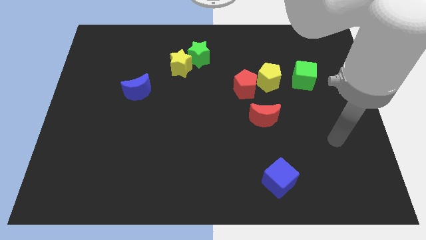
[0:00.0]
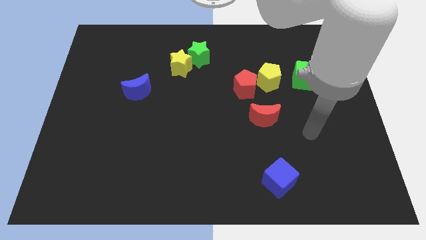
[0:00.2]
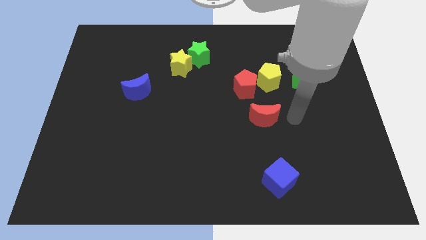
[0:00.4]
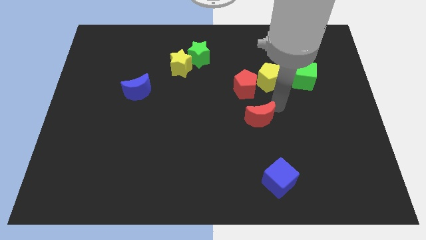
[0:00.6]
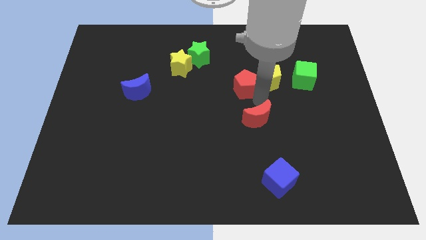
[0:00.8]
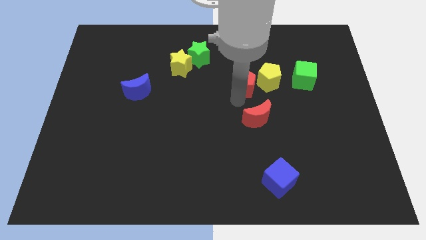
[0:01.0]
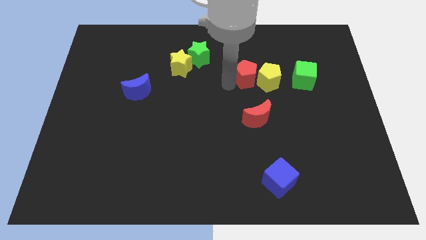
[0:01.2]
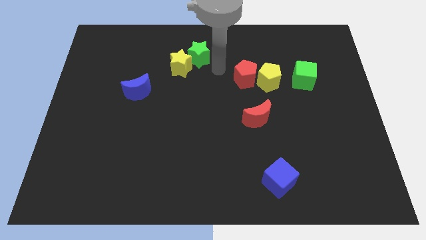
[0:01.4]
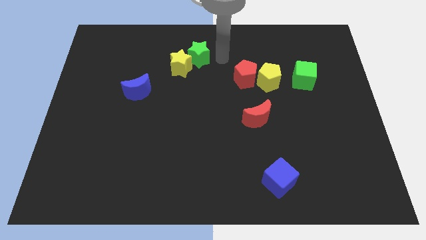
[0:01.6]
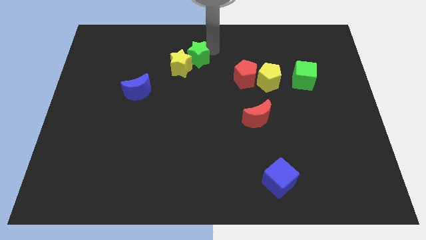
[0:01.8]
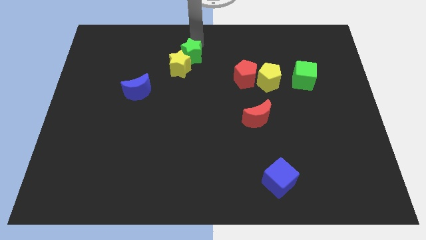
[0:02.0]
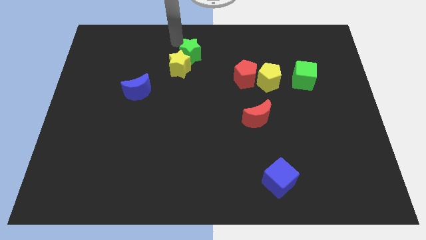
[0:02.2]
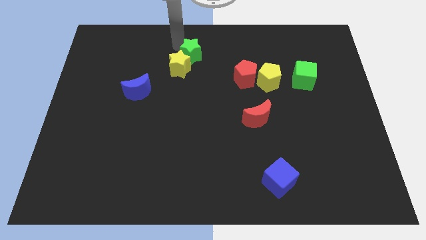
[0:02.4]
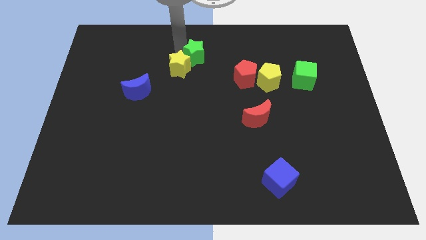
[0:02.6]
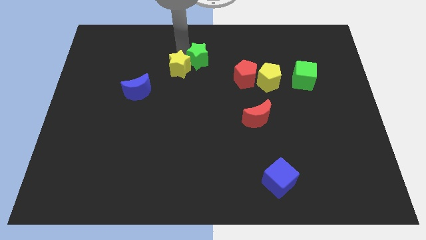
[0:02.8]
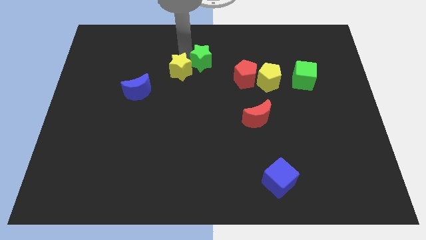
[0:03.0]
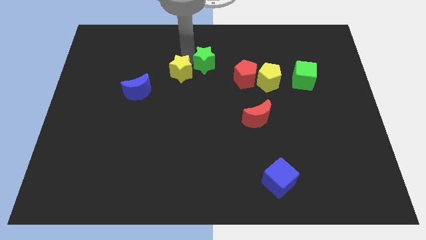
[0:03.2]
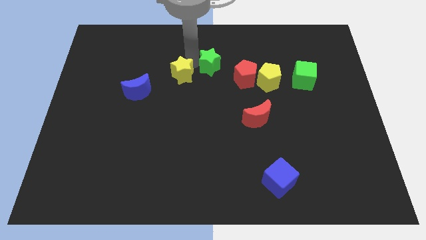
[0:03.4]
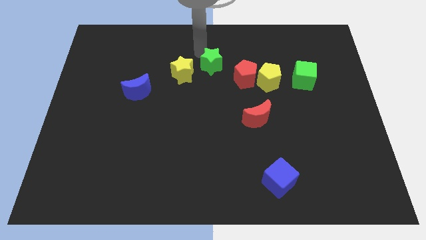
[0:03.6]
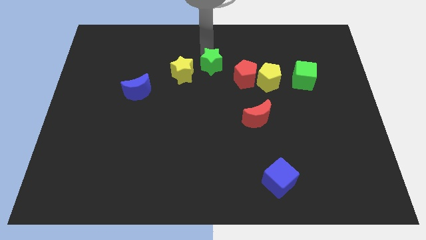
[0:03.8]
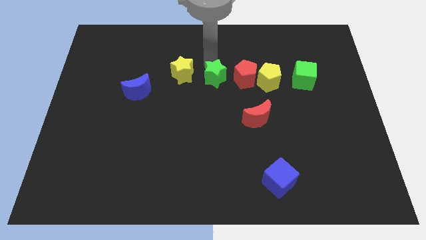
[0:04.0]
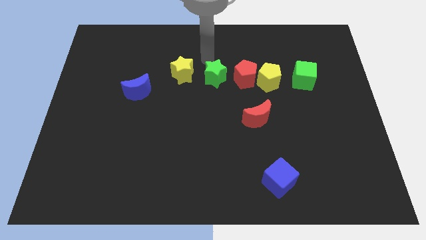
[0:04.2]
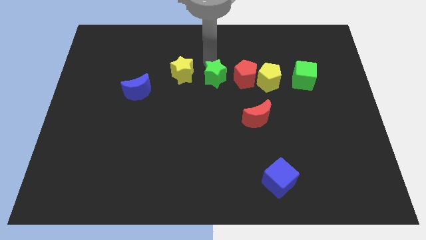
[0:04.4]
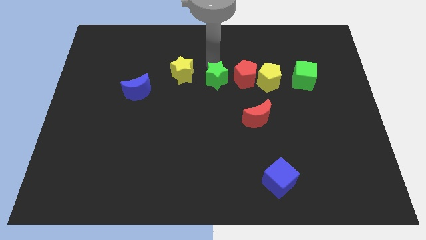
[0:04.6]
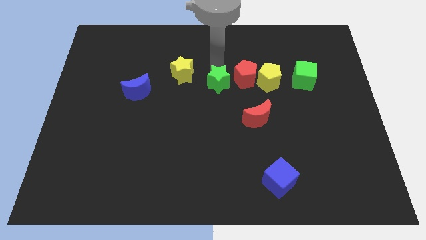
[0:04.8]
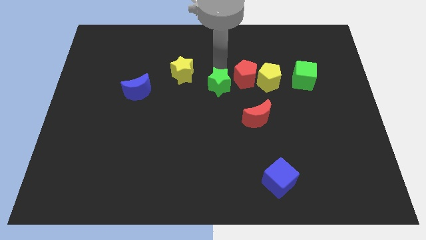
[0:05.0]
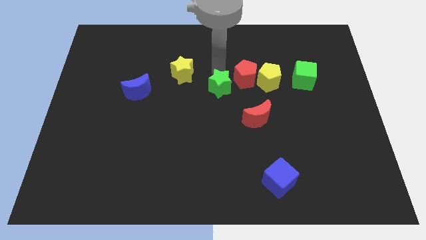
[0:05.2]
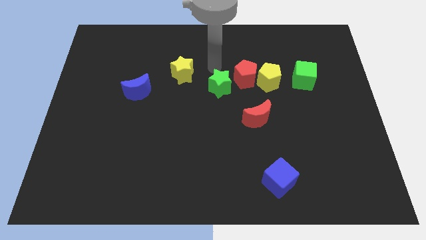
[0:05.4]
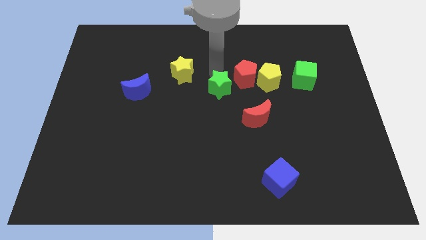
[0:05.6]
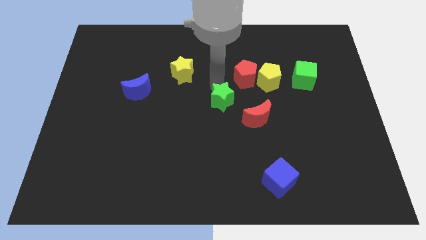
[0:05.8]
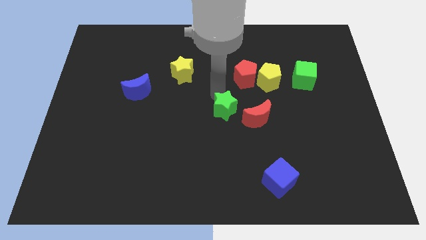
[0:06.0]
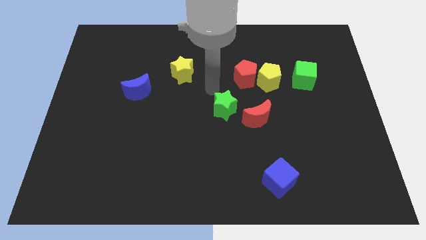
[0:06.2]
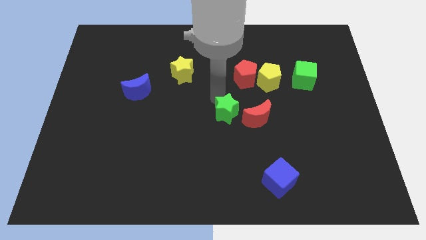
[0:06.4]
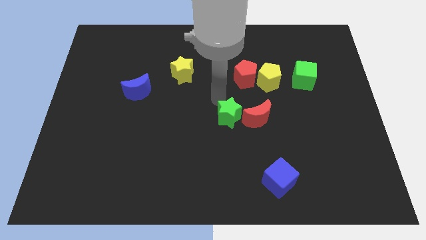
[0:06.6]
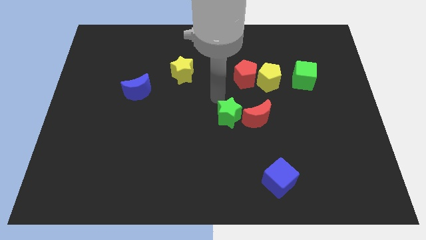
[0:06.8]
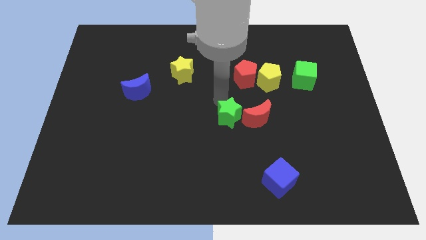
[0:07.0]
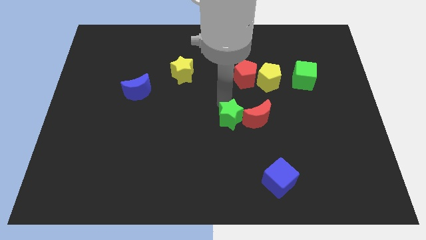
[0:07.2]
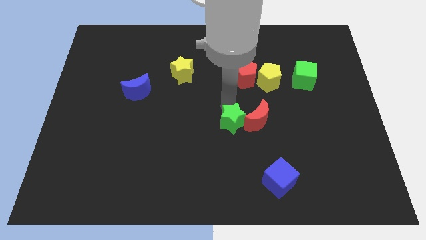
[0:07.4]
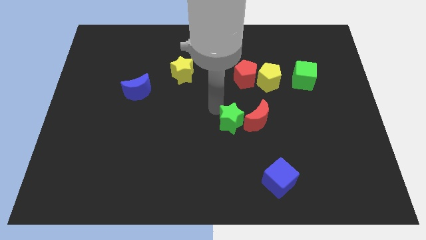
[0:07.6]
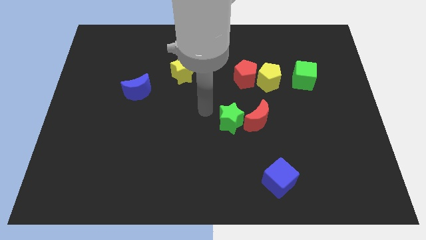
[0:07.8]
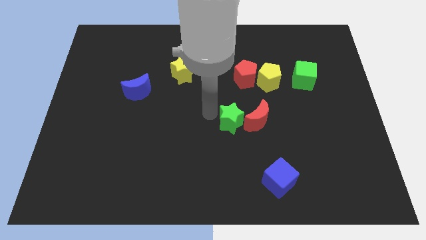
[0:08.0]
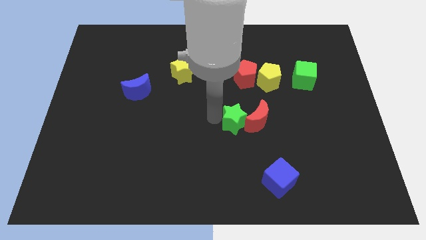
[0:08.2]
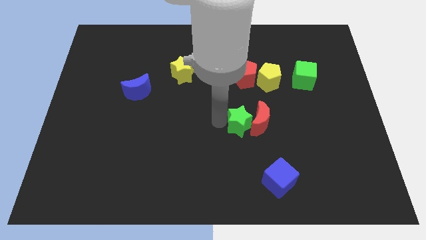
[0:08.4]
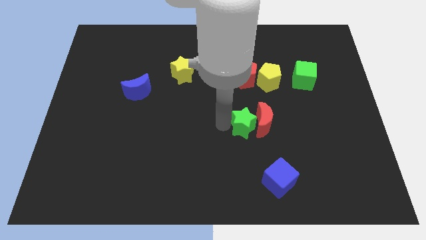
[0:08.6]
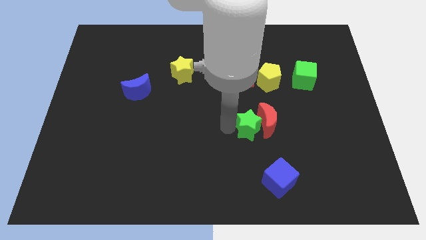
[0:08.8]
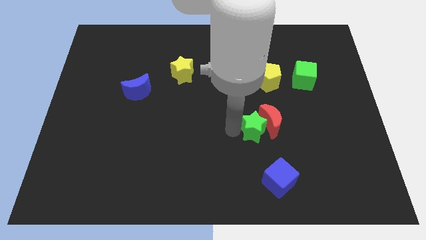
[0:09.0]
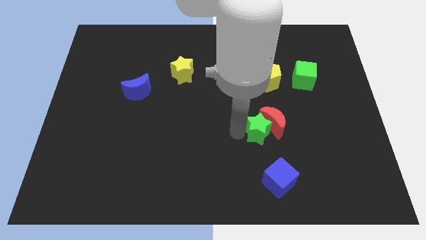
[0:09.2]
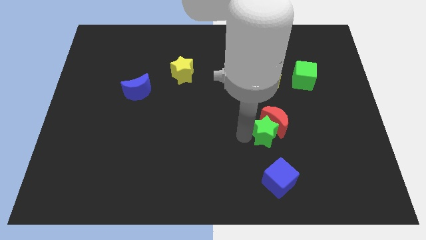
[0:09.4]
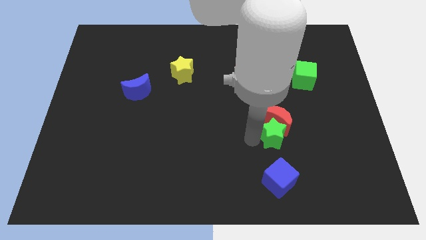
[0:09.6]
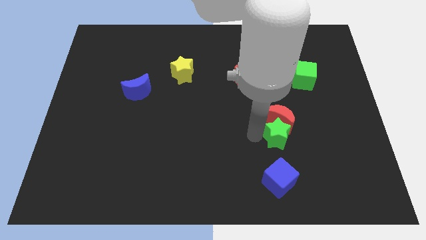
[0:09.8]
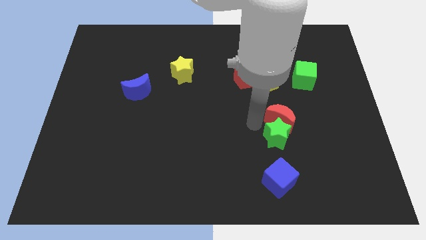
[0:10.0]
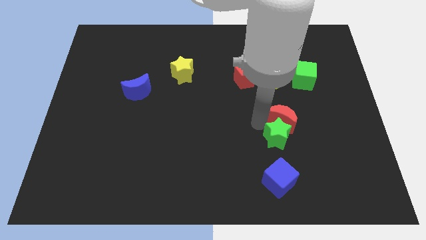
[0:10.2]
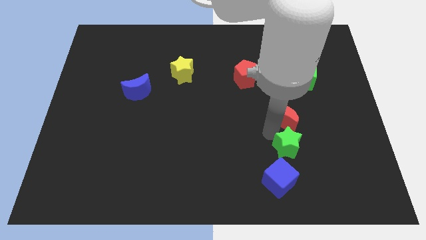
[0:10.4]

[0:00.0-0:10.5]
slide the green star diagonally up and to the right of the blue cube

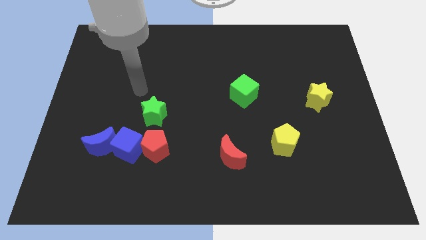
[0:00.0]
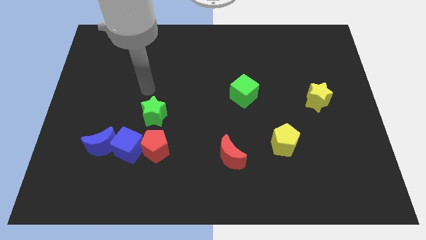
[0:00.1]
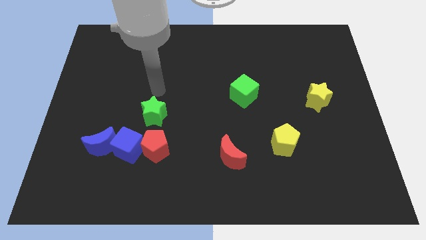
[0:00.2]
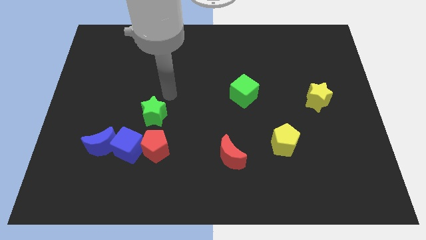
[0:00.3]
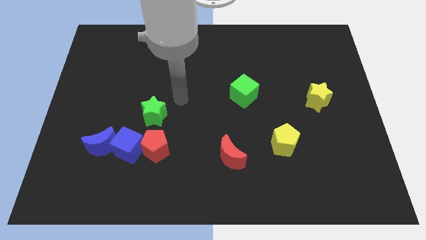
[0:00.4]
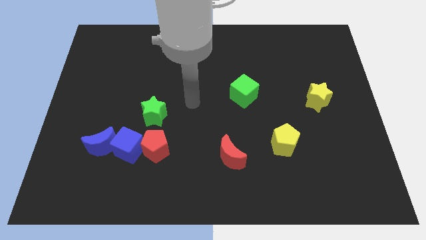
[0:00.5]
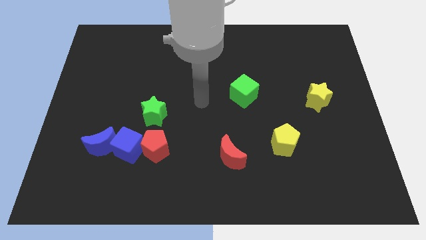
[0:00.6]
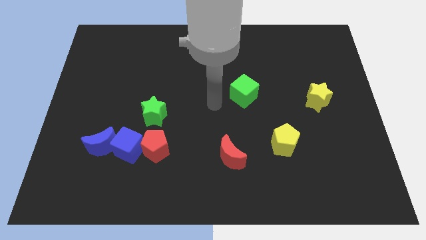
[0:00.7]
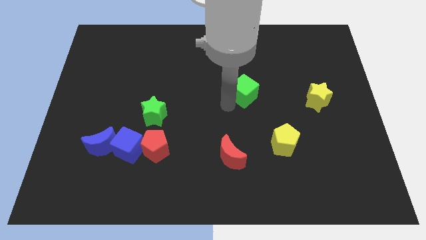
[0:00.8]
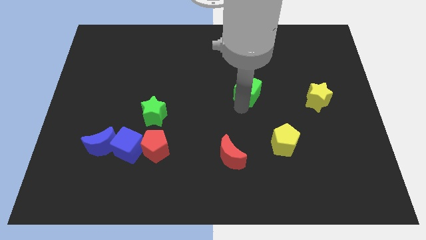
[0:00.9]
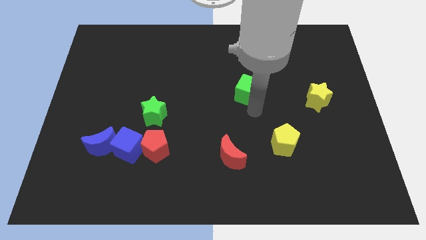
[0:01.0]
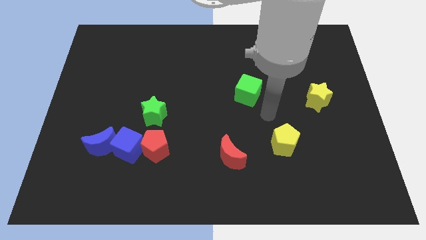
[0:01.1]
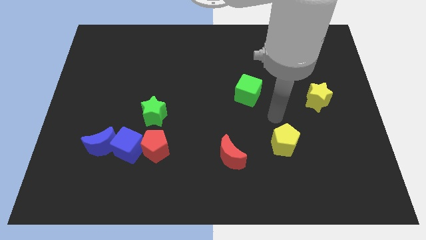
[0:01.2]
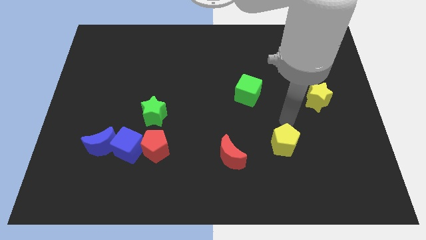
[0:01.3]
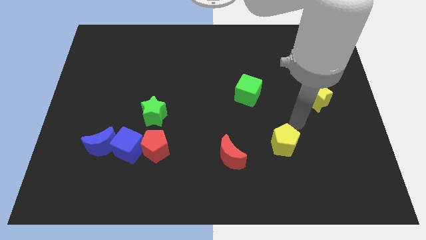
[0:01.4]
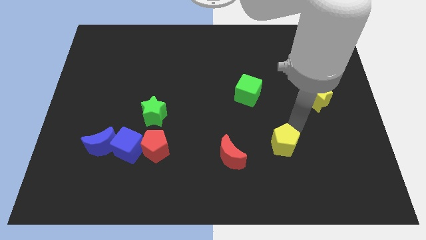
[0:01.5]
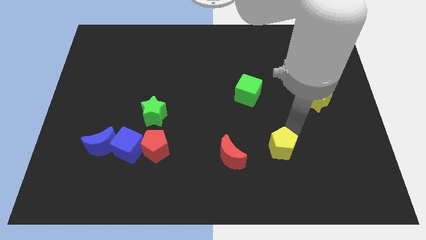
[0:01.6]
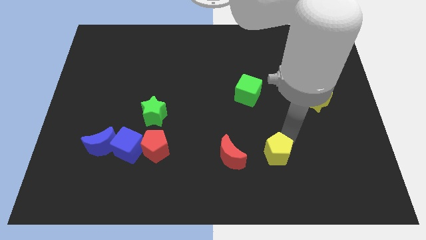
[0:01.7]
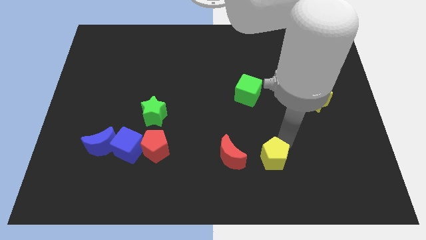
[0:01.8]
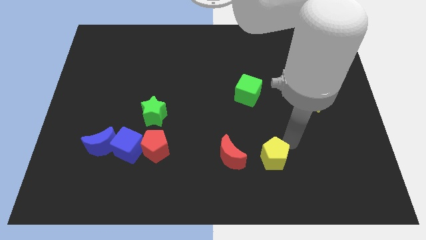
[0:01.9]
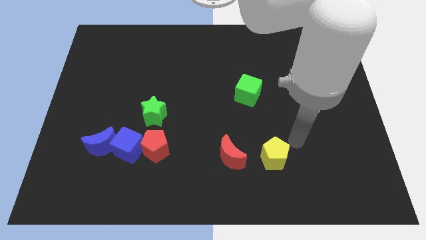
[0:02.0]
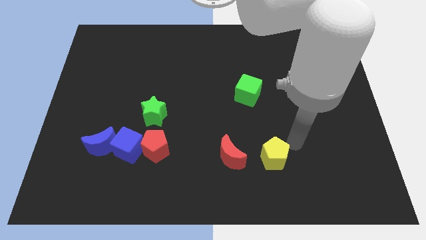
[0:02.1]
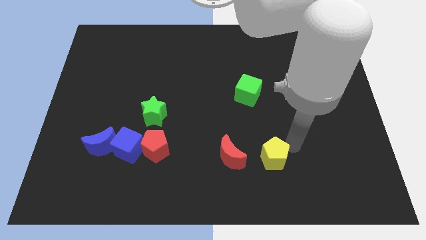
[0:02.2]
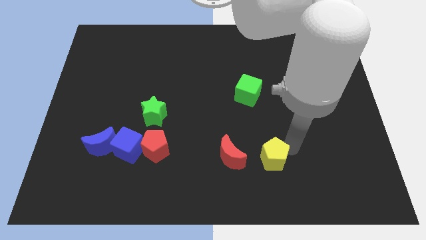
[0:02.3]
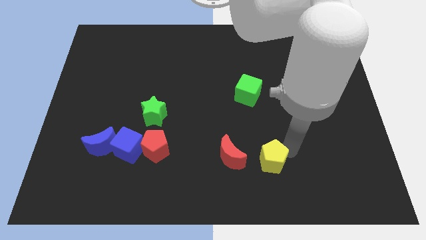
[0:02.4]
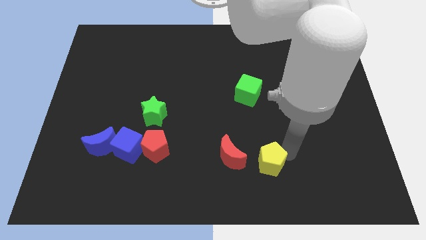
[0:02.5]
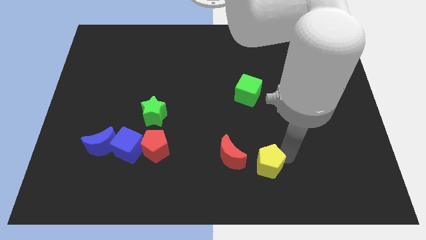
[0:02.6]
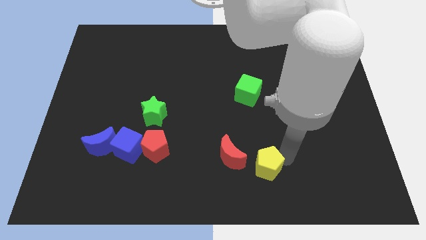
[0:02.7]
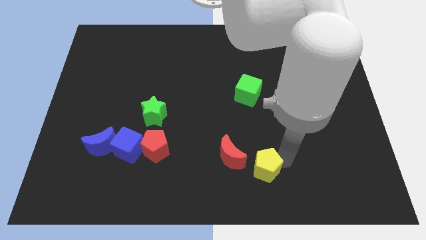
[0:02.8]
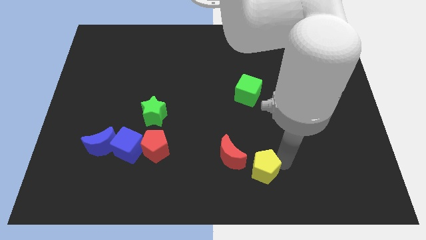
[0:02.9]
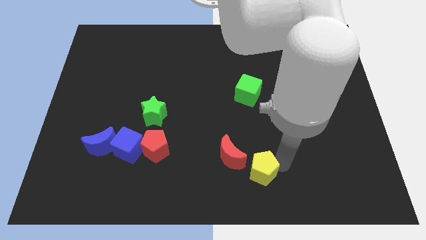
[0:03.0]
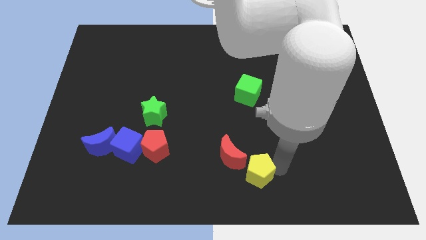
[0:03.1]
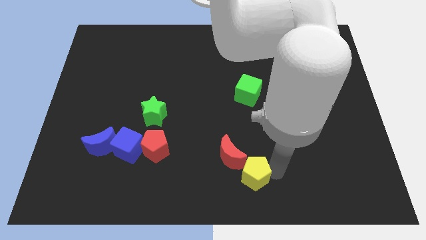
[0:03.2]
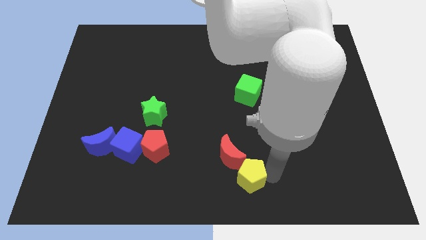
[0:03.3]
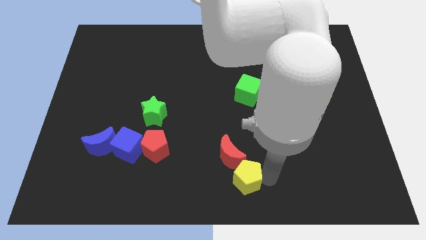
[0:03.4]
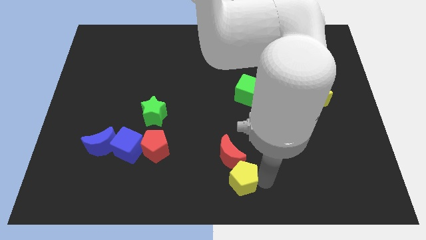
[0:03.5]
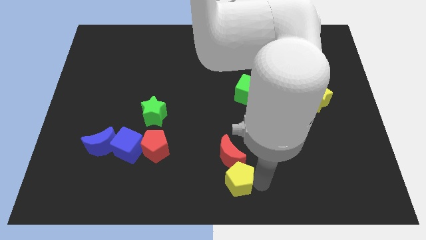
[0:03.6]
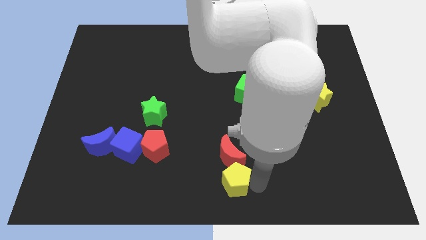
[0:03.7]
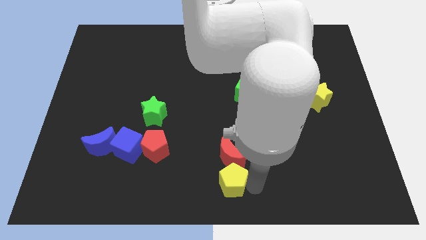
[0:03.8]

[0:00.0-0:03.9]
slide the yellow pentagon to the bottom left of the red moon
